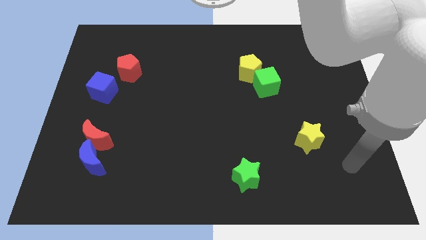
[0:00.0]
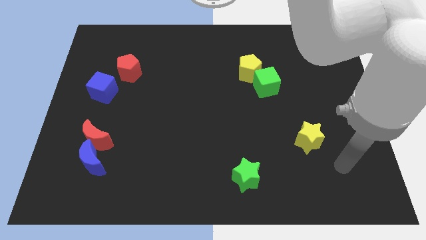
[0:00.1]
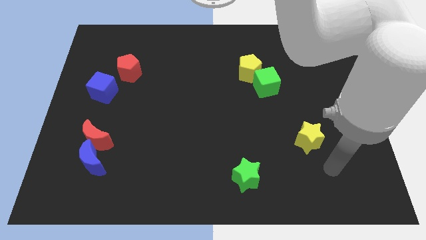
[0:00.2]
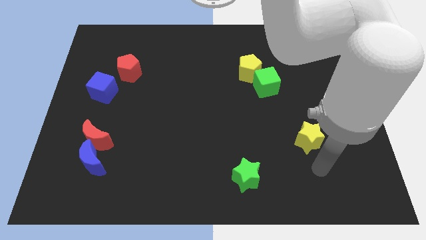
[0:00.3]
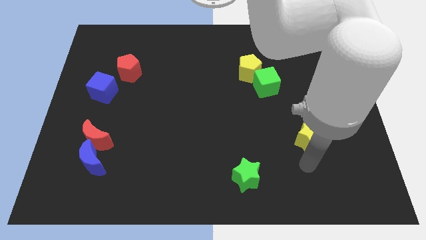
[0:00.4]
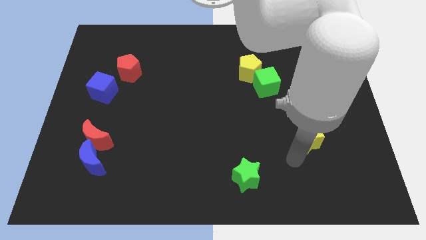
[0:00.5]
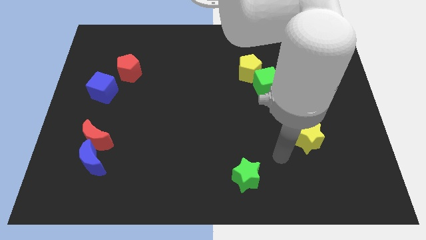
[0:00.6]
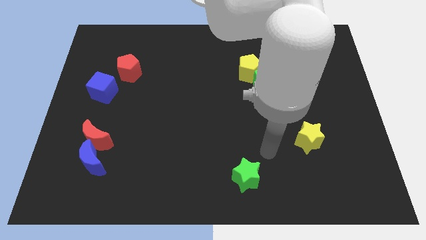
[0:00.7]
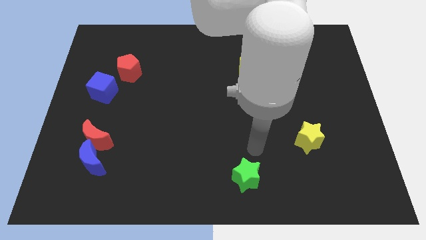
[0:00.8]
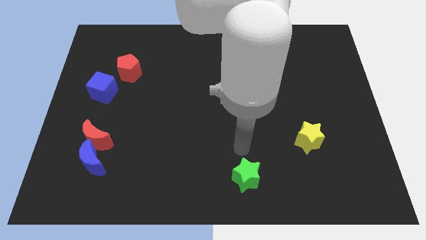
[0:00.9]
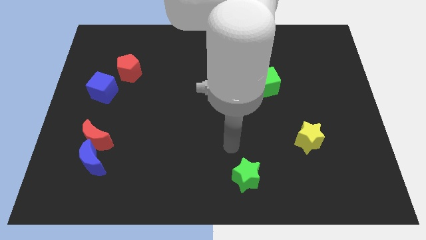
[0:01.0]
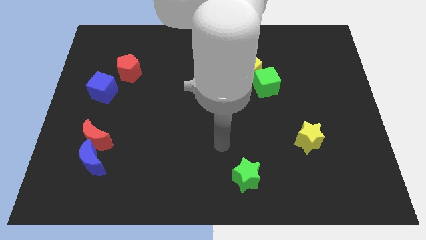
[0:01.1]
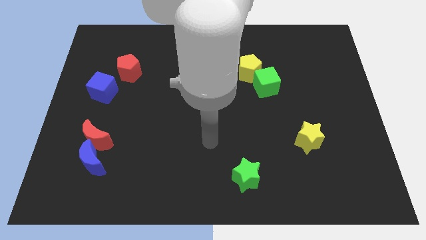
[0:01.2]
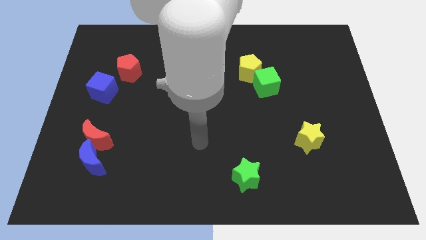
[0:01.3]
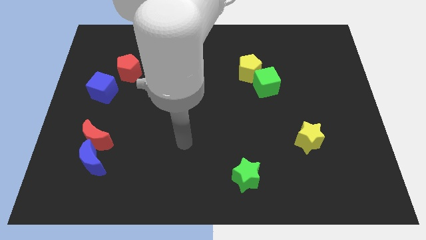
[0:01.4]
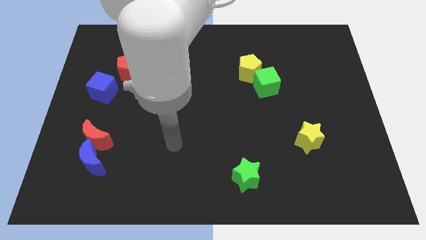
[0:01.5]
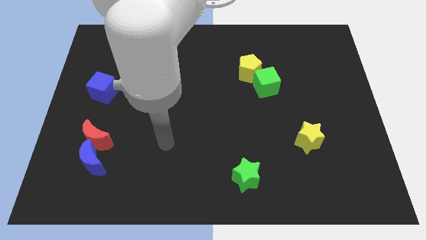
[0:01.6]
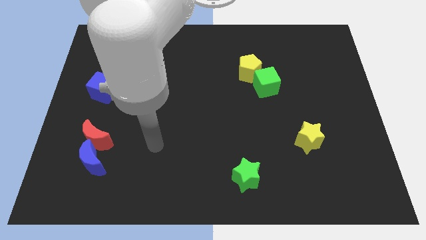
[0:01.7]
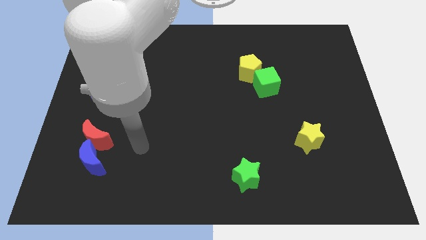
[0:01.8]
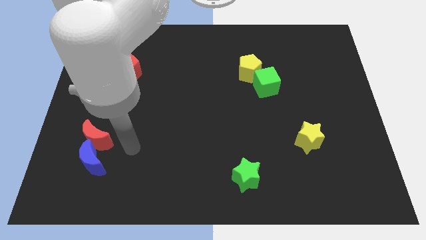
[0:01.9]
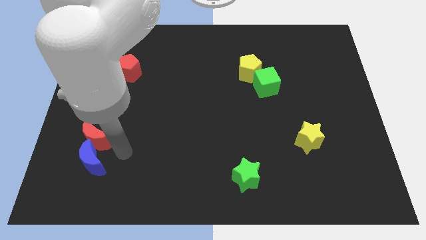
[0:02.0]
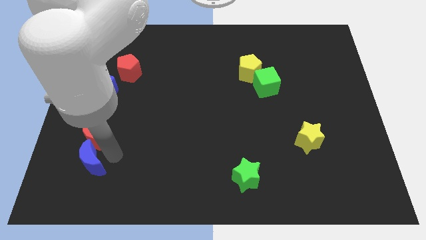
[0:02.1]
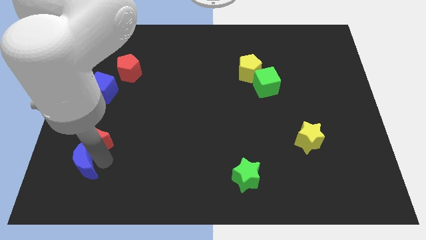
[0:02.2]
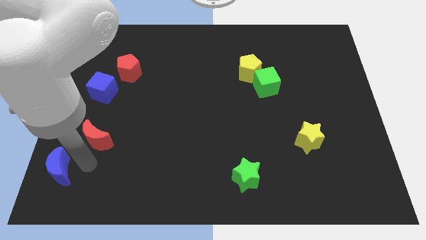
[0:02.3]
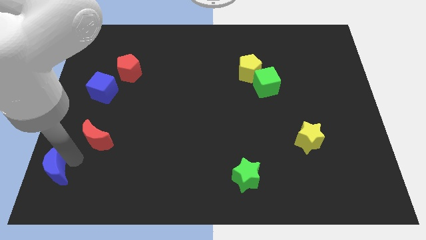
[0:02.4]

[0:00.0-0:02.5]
separate the red moon from the blue moon

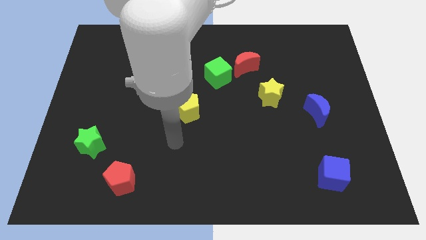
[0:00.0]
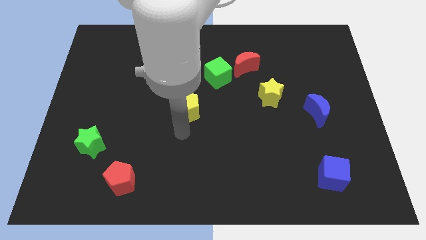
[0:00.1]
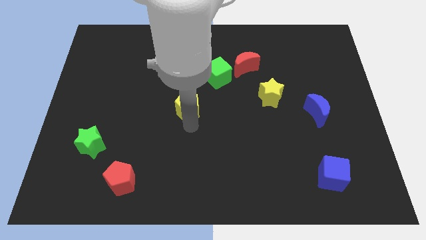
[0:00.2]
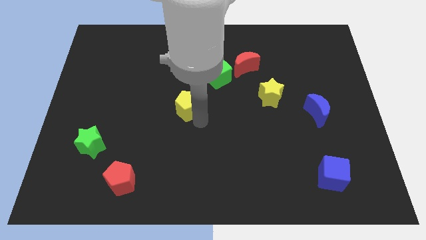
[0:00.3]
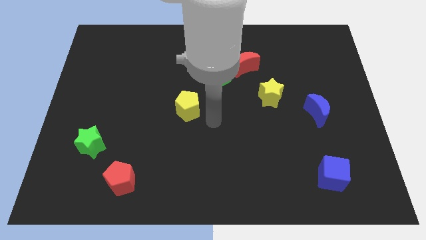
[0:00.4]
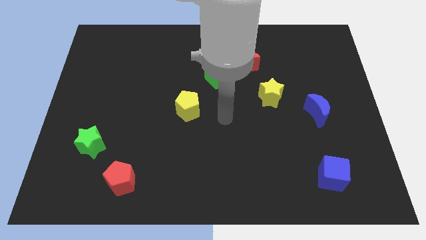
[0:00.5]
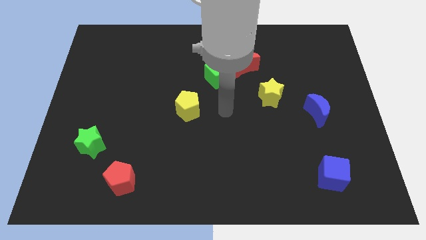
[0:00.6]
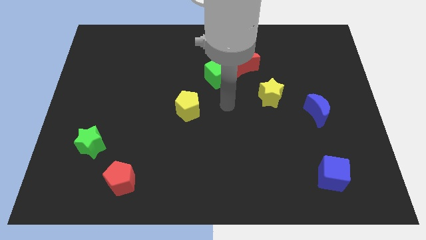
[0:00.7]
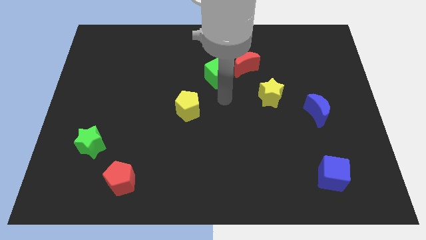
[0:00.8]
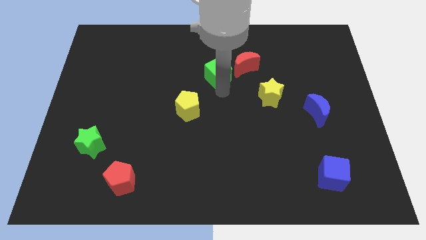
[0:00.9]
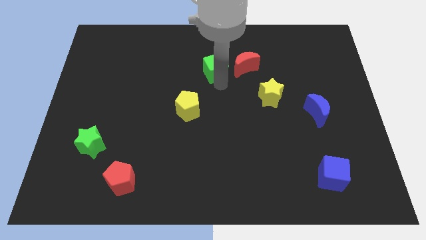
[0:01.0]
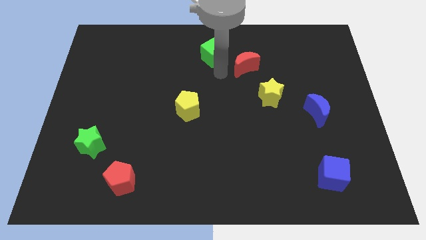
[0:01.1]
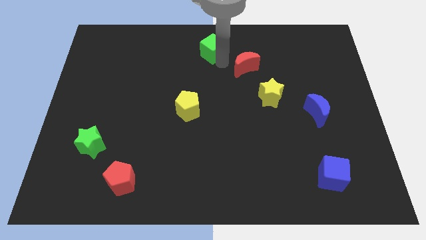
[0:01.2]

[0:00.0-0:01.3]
move the red moon away from the green cube

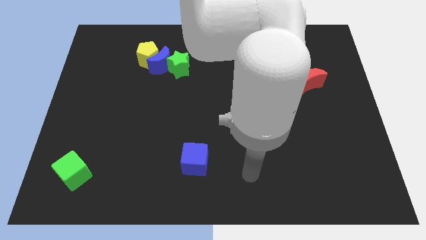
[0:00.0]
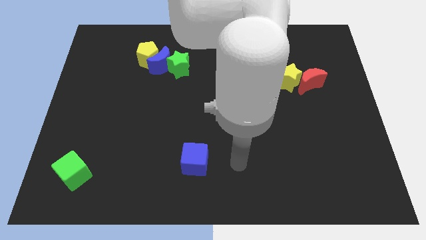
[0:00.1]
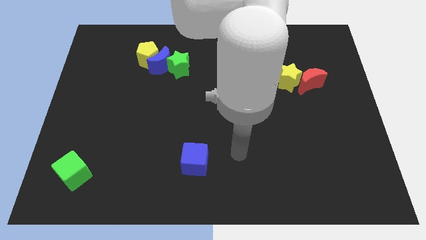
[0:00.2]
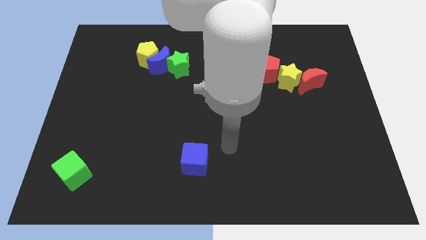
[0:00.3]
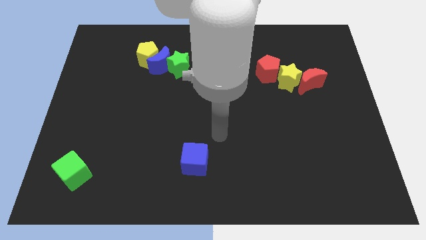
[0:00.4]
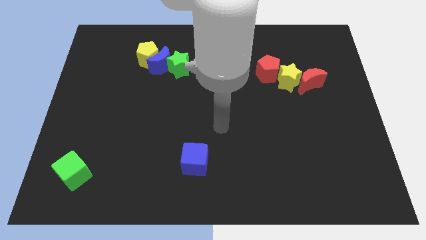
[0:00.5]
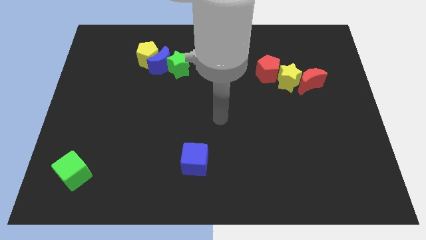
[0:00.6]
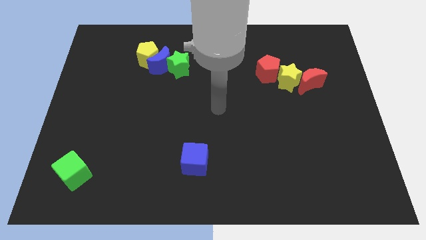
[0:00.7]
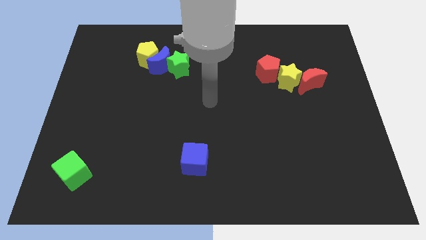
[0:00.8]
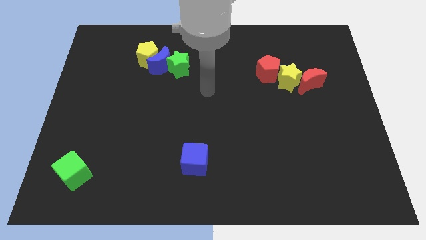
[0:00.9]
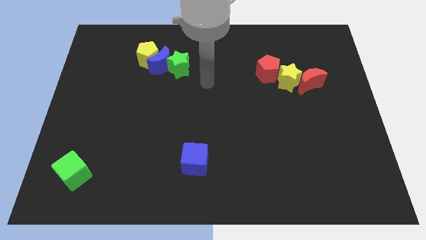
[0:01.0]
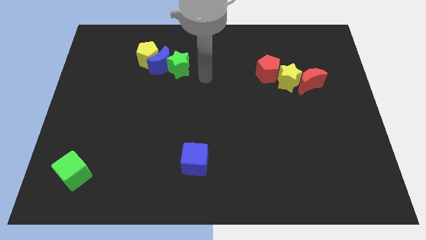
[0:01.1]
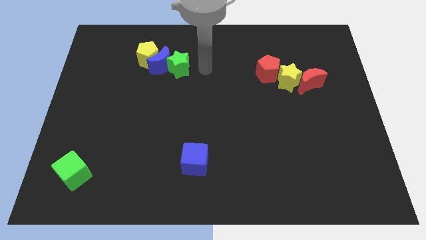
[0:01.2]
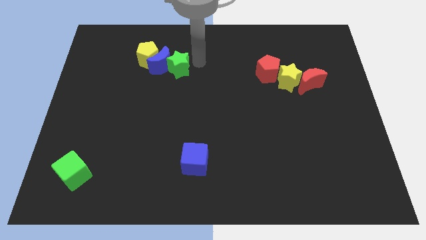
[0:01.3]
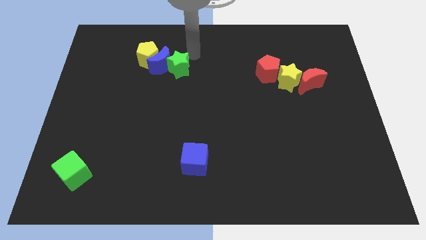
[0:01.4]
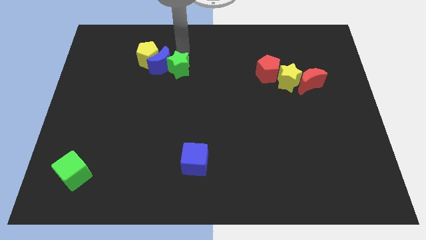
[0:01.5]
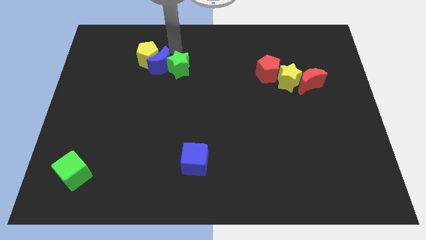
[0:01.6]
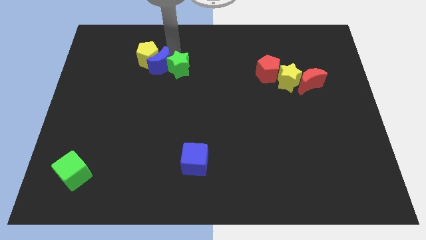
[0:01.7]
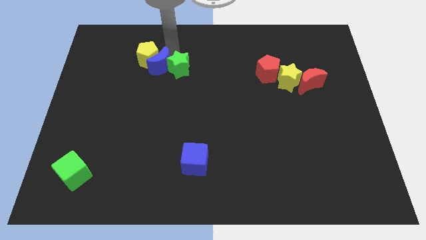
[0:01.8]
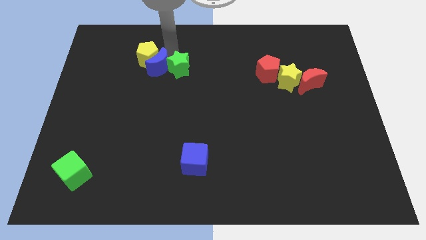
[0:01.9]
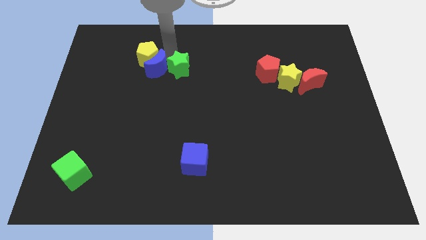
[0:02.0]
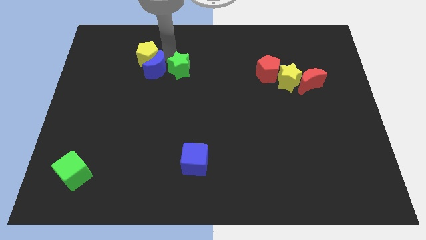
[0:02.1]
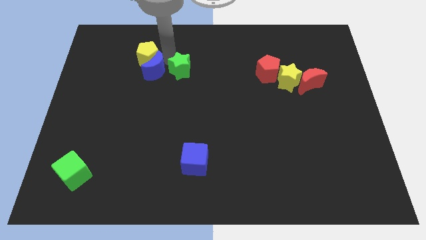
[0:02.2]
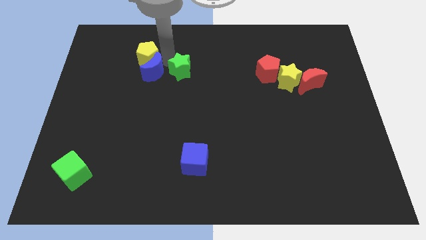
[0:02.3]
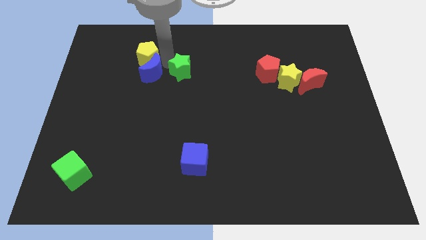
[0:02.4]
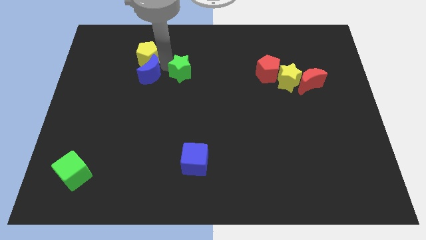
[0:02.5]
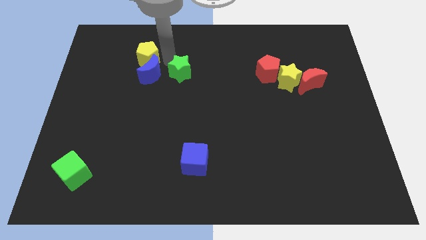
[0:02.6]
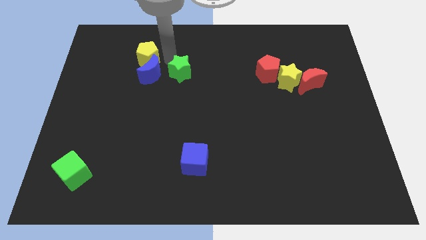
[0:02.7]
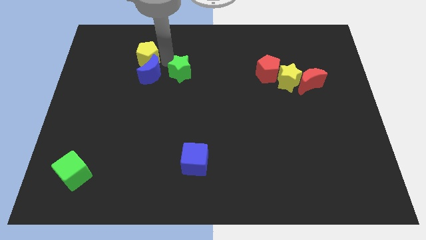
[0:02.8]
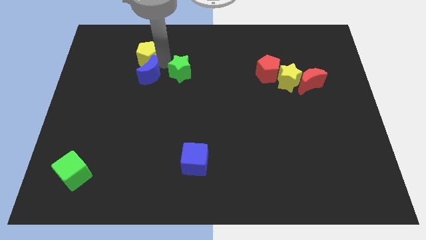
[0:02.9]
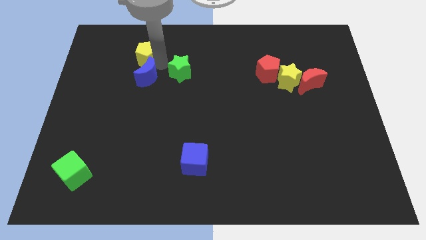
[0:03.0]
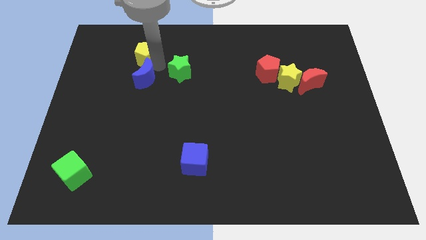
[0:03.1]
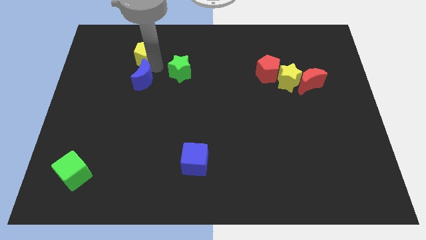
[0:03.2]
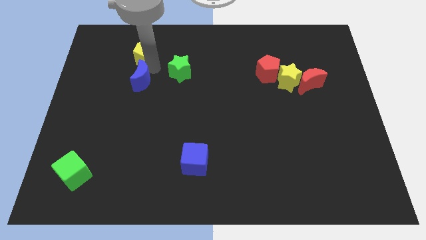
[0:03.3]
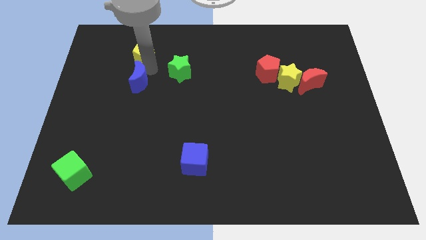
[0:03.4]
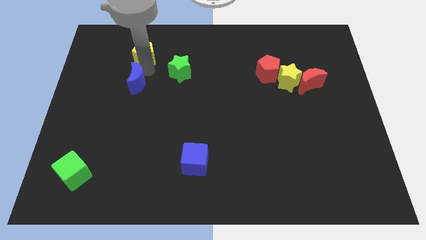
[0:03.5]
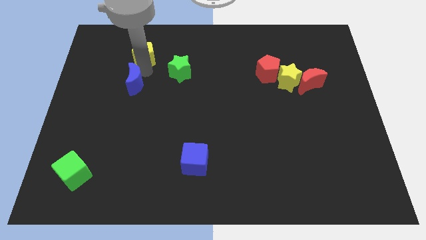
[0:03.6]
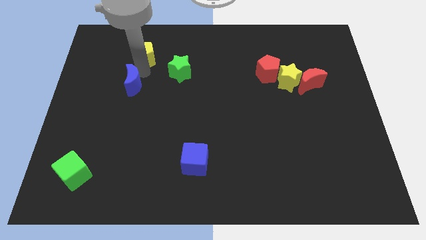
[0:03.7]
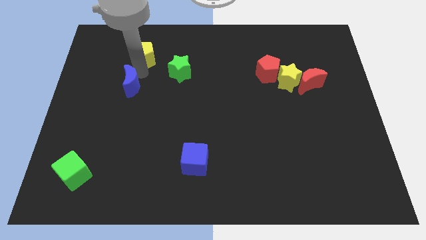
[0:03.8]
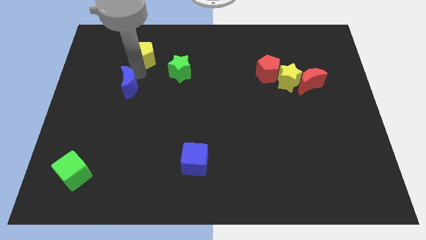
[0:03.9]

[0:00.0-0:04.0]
pull the blue moon apart from the yellow pentagon and green star

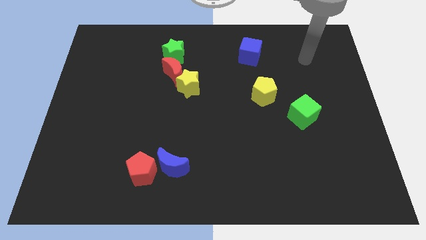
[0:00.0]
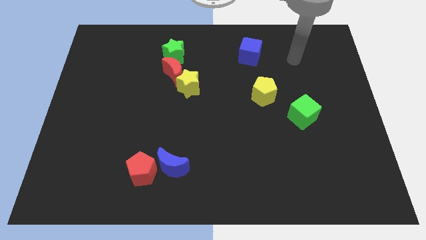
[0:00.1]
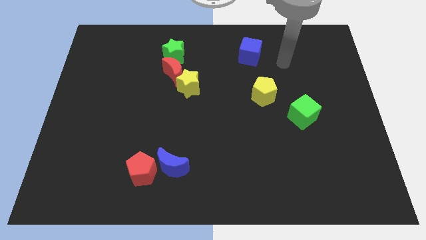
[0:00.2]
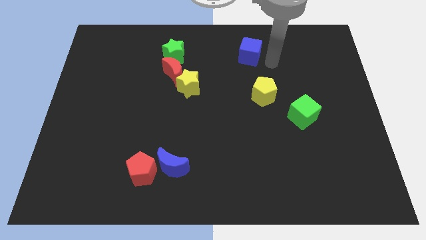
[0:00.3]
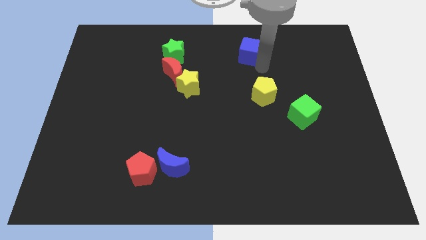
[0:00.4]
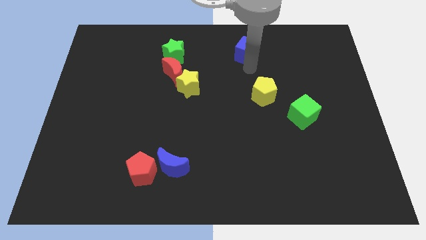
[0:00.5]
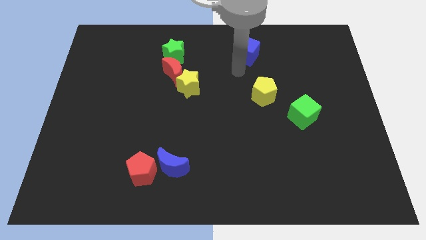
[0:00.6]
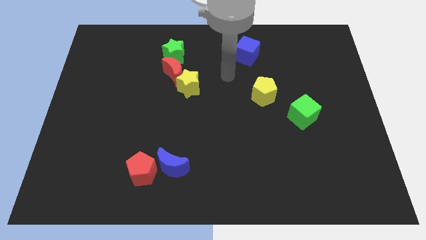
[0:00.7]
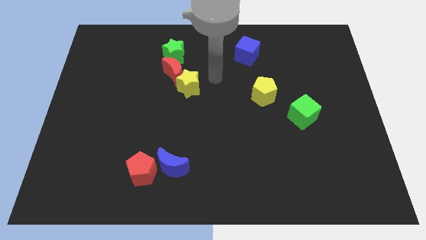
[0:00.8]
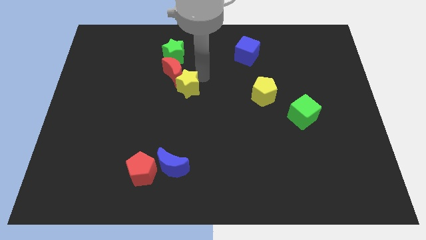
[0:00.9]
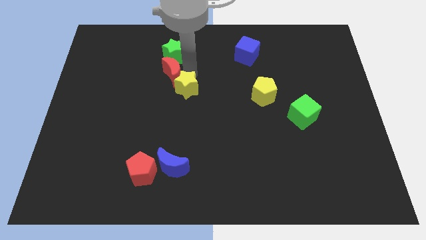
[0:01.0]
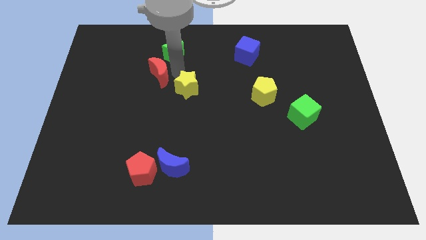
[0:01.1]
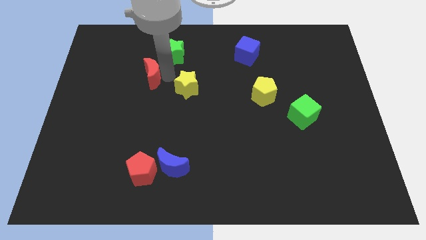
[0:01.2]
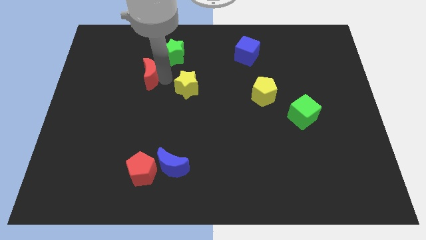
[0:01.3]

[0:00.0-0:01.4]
move the yellow star away from the red moon

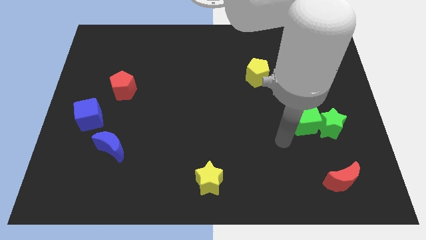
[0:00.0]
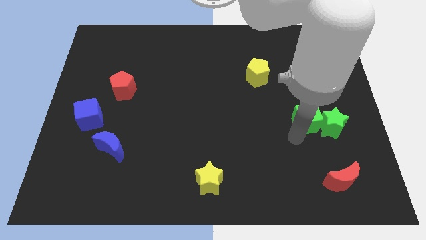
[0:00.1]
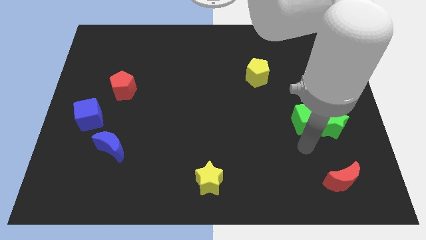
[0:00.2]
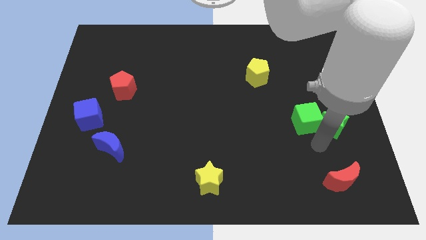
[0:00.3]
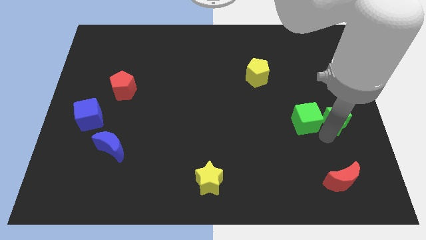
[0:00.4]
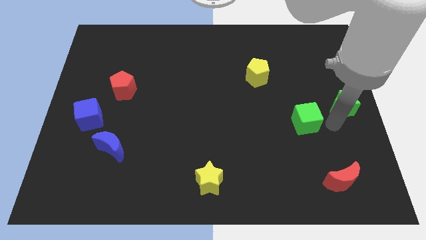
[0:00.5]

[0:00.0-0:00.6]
move the green cube away from the green star
